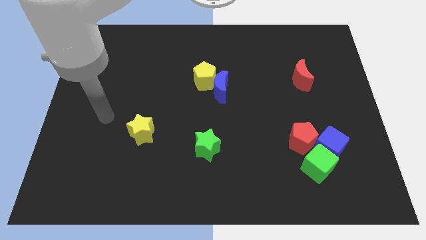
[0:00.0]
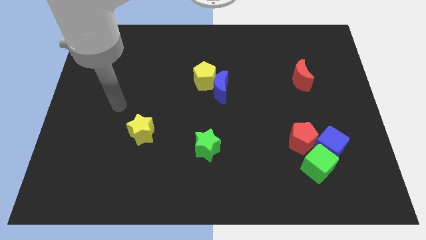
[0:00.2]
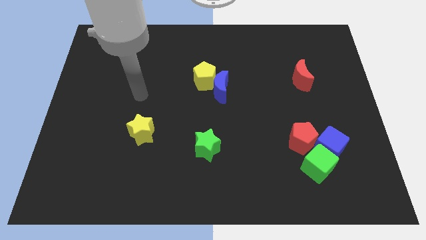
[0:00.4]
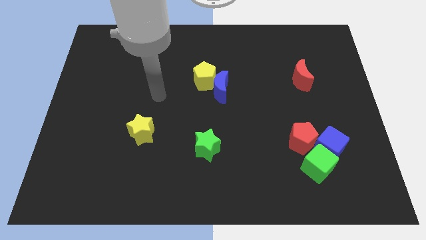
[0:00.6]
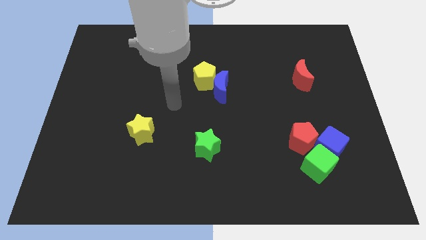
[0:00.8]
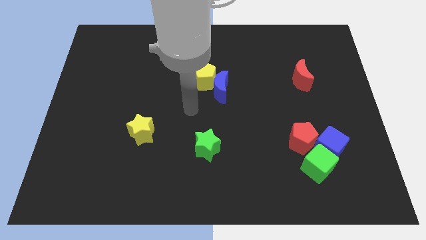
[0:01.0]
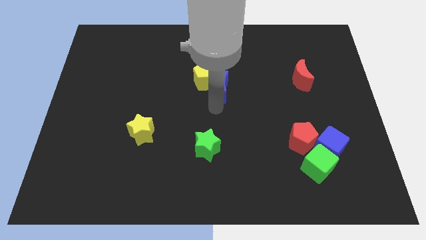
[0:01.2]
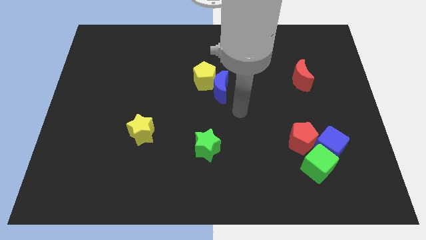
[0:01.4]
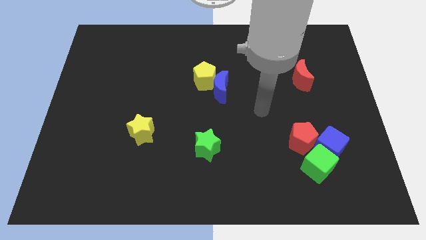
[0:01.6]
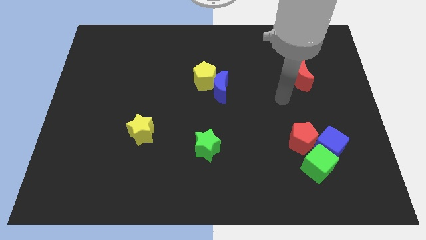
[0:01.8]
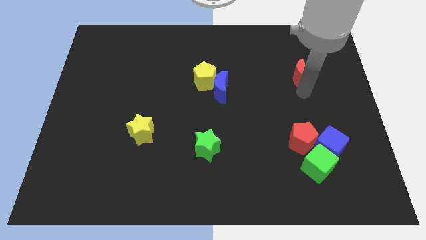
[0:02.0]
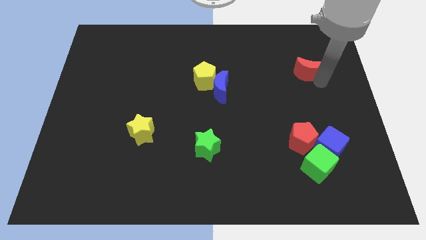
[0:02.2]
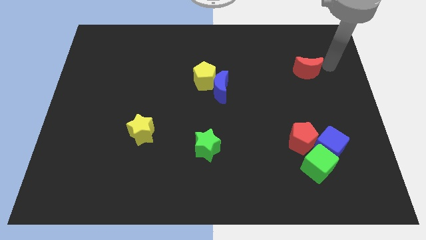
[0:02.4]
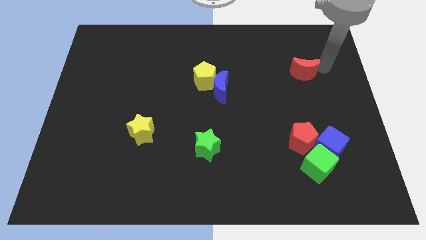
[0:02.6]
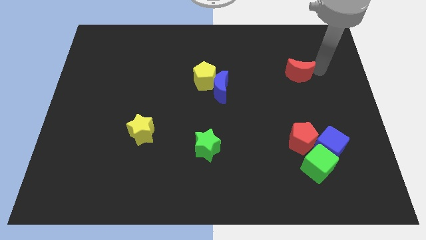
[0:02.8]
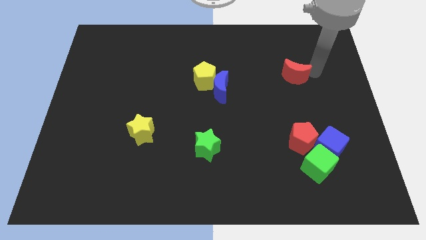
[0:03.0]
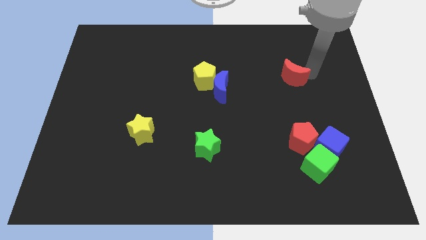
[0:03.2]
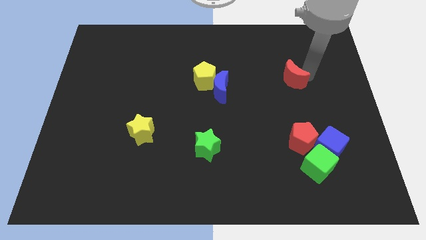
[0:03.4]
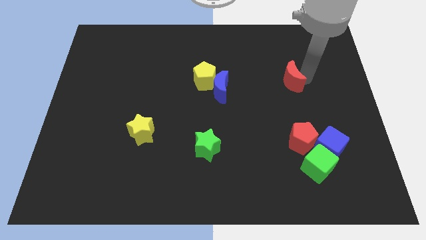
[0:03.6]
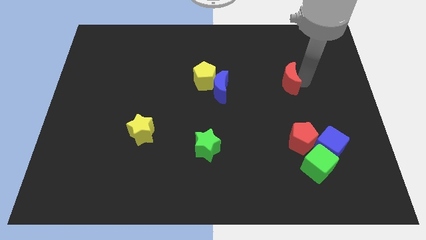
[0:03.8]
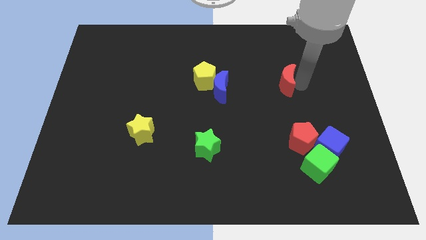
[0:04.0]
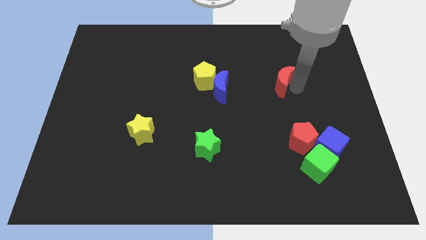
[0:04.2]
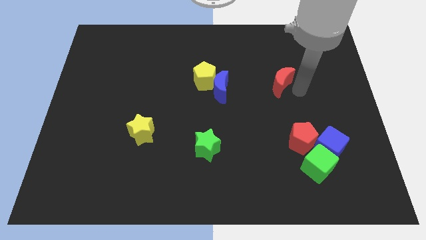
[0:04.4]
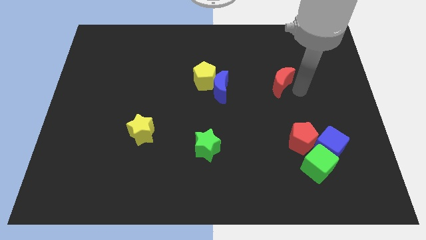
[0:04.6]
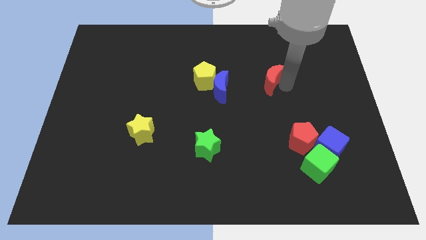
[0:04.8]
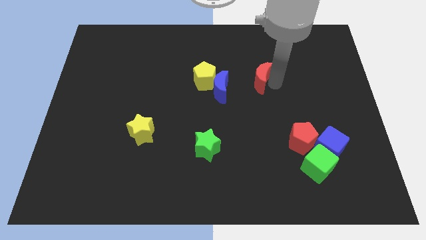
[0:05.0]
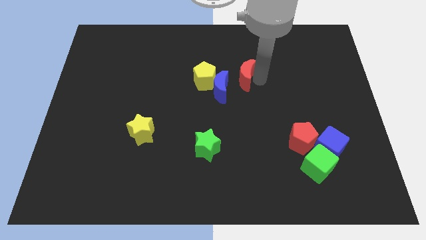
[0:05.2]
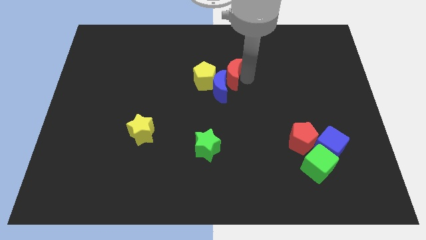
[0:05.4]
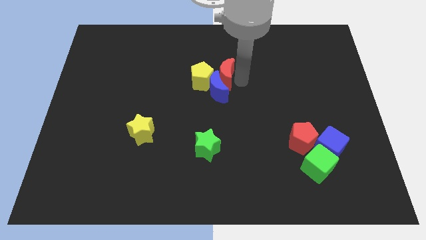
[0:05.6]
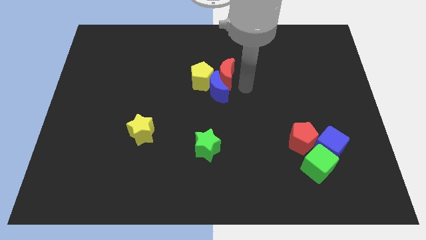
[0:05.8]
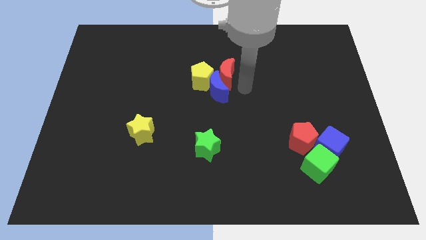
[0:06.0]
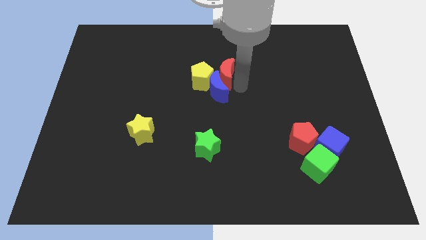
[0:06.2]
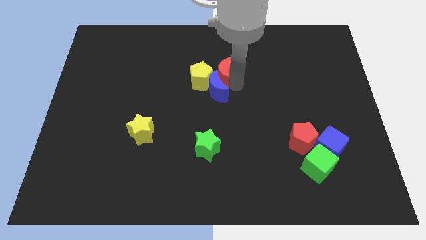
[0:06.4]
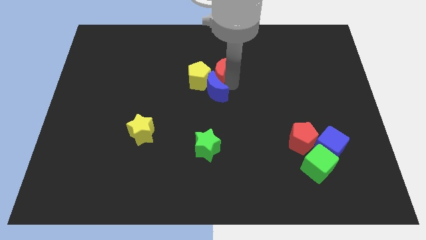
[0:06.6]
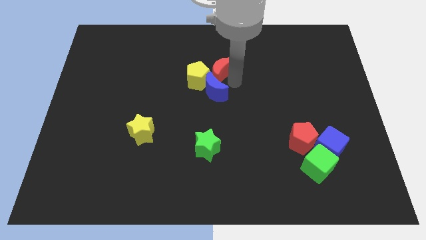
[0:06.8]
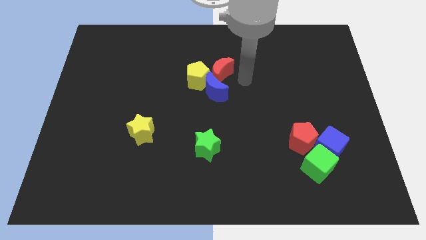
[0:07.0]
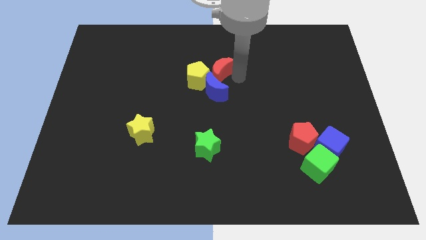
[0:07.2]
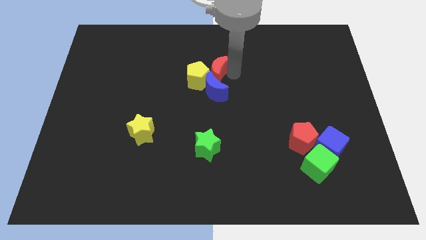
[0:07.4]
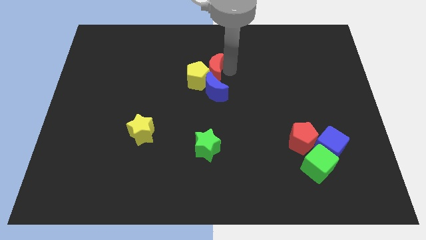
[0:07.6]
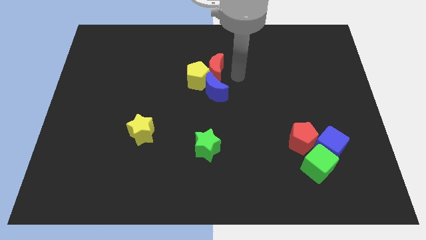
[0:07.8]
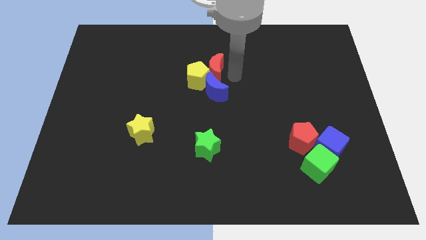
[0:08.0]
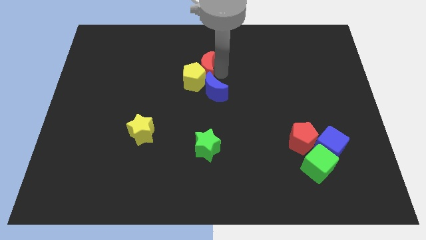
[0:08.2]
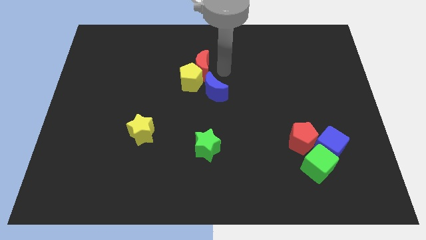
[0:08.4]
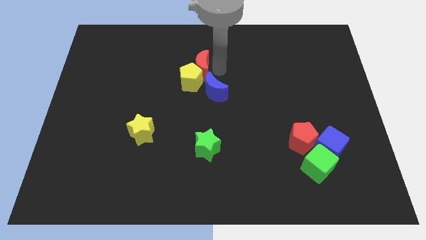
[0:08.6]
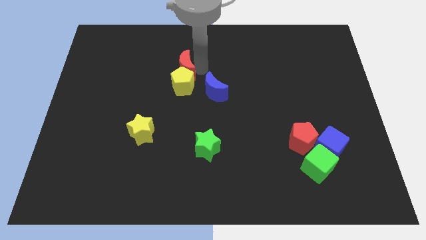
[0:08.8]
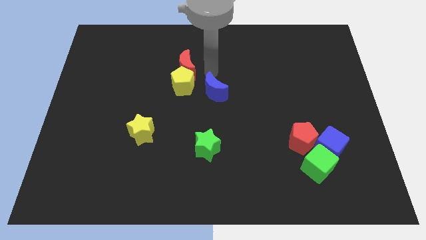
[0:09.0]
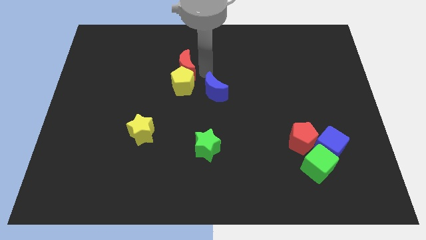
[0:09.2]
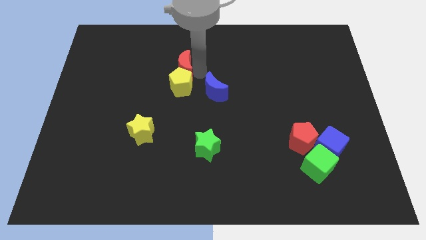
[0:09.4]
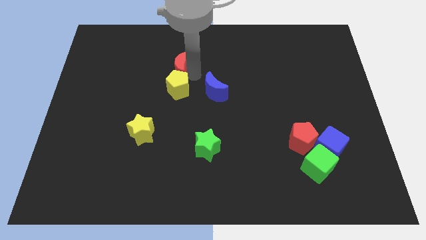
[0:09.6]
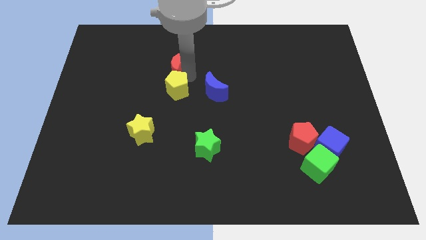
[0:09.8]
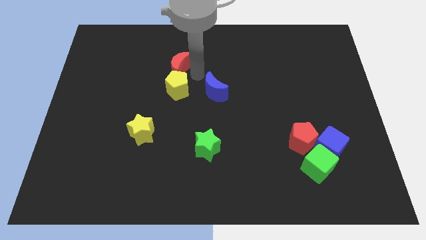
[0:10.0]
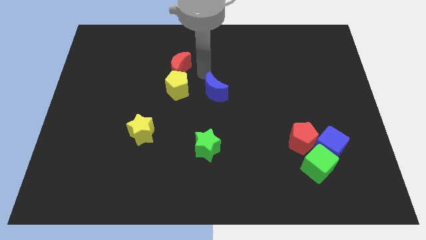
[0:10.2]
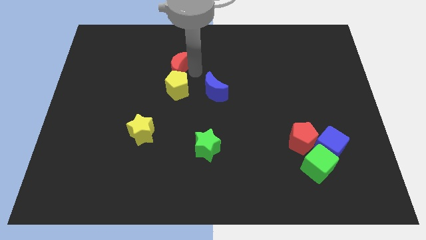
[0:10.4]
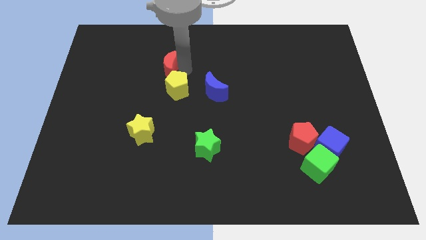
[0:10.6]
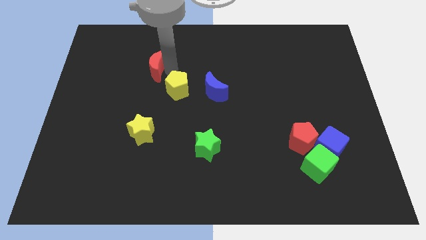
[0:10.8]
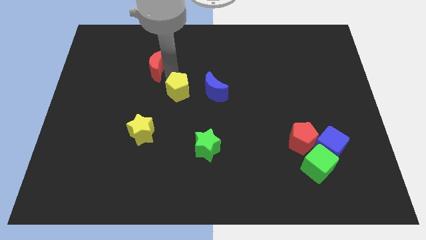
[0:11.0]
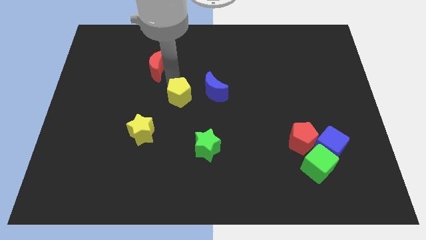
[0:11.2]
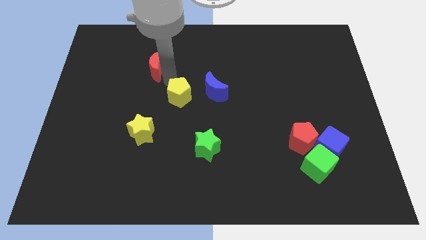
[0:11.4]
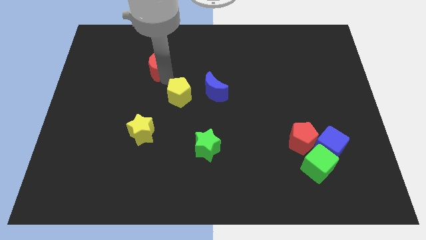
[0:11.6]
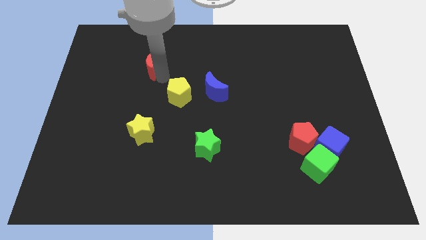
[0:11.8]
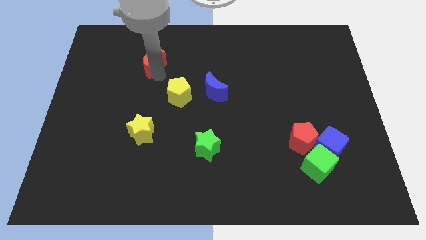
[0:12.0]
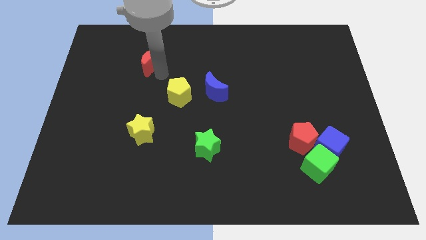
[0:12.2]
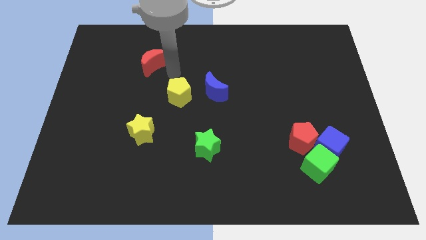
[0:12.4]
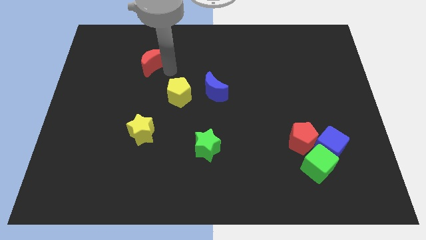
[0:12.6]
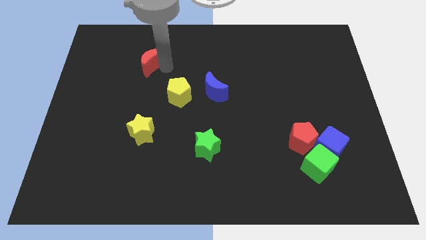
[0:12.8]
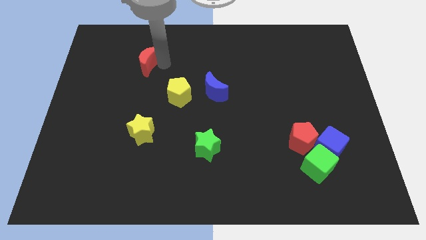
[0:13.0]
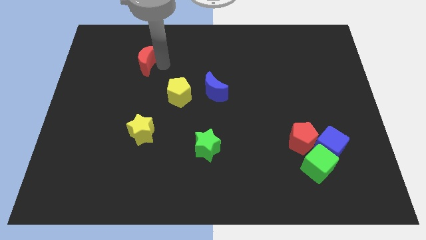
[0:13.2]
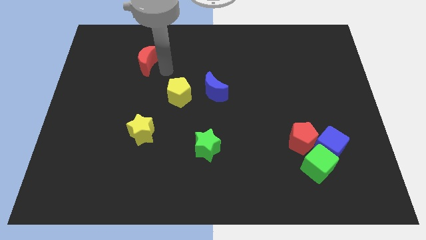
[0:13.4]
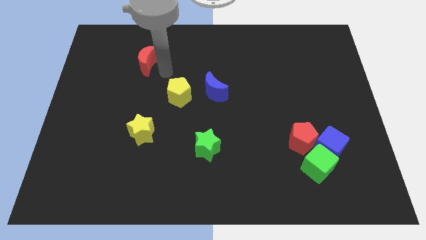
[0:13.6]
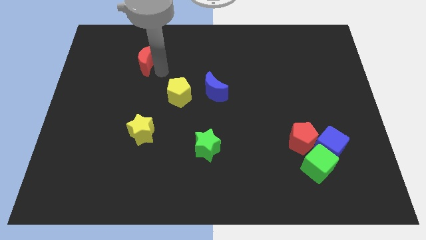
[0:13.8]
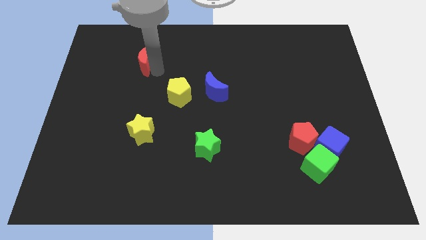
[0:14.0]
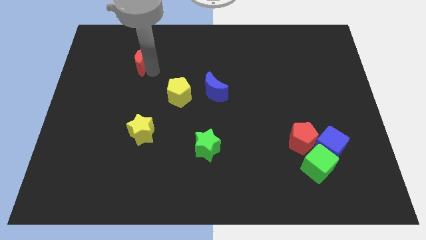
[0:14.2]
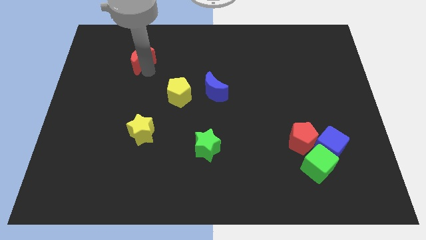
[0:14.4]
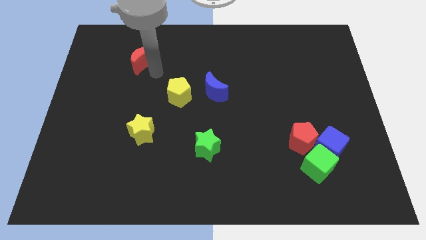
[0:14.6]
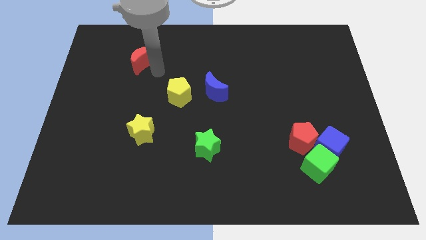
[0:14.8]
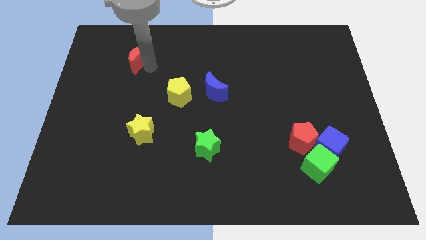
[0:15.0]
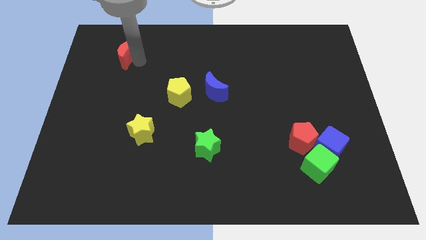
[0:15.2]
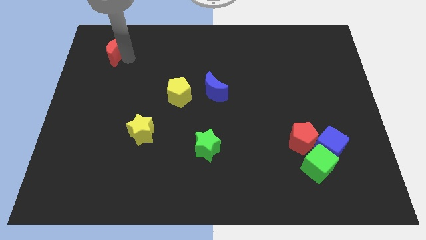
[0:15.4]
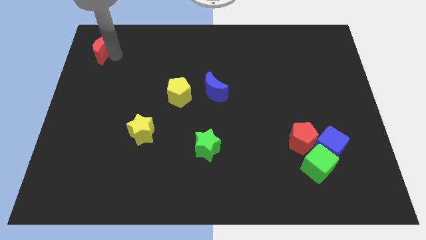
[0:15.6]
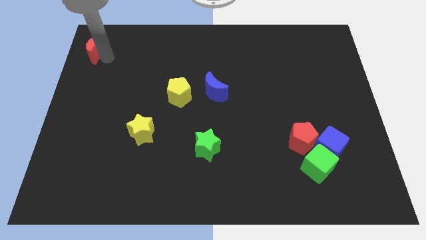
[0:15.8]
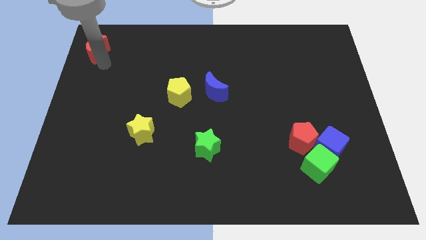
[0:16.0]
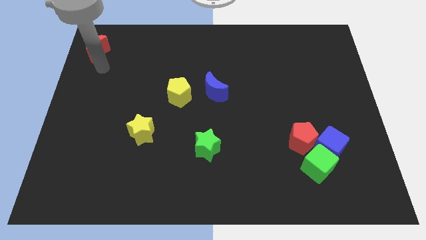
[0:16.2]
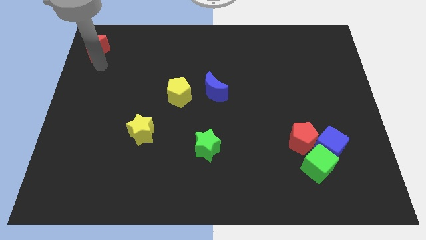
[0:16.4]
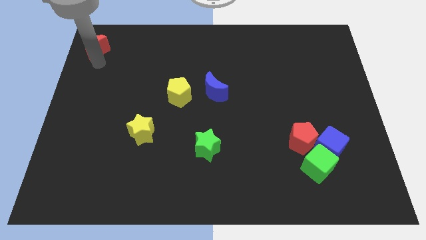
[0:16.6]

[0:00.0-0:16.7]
push the red moon to the top left
